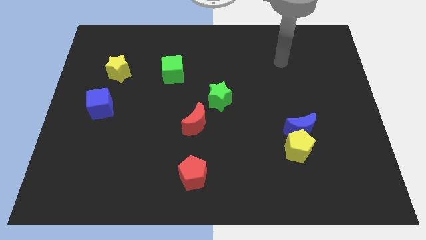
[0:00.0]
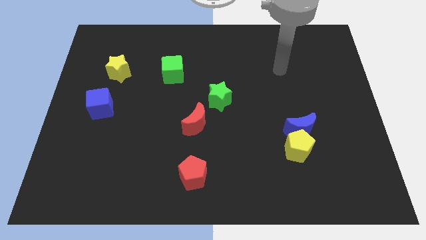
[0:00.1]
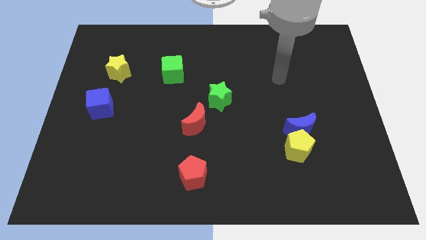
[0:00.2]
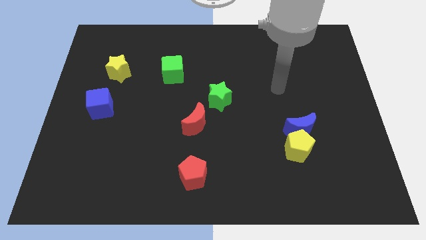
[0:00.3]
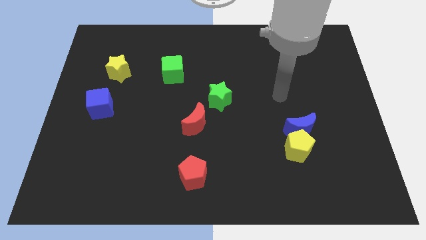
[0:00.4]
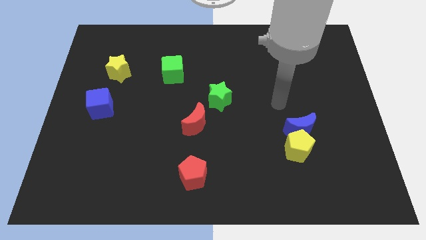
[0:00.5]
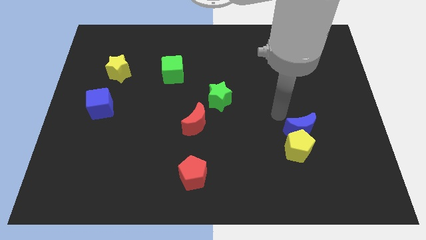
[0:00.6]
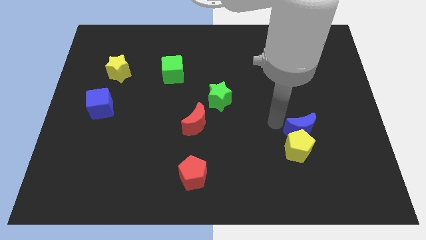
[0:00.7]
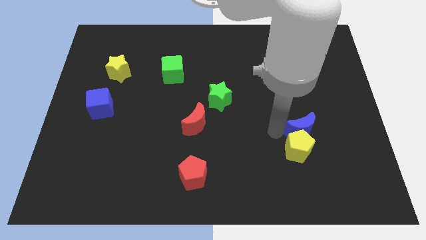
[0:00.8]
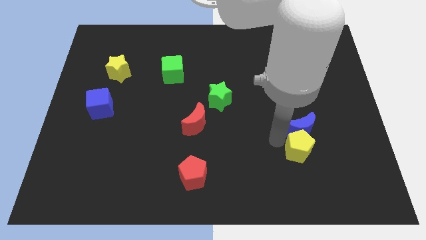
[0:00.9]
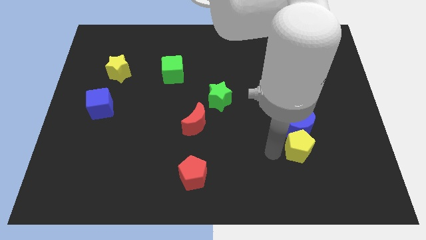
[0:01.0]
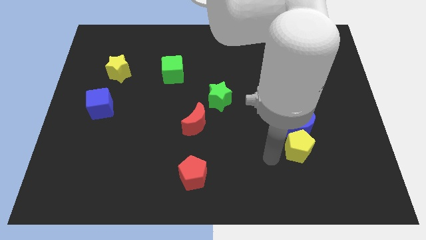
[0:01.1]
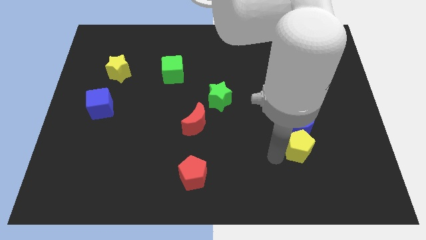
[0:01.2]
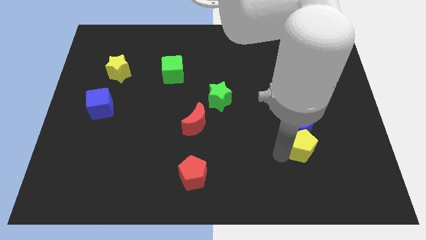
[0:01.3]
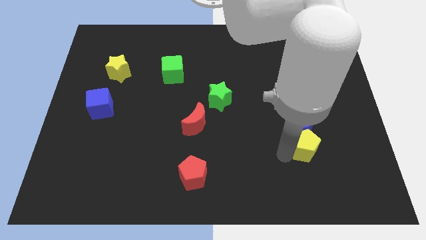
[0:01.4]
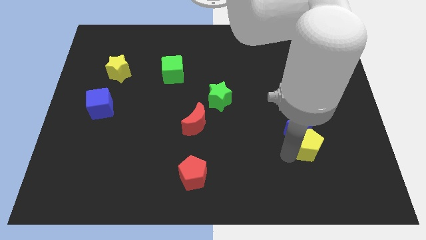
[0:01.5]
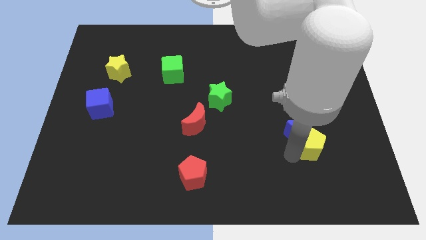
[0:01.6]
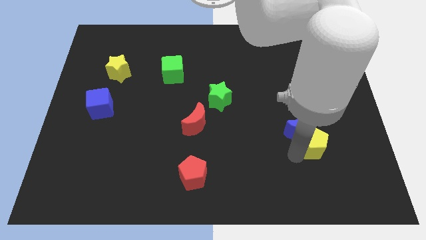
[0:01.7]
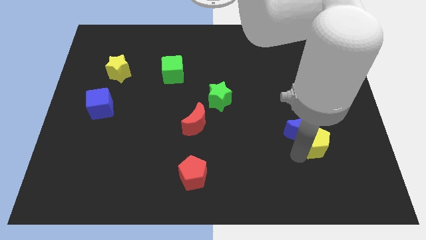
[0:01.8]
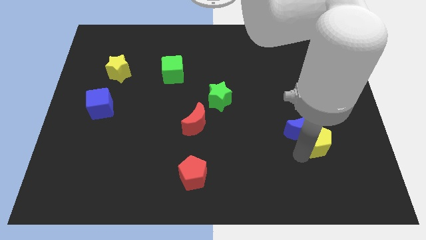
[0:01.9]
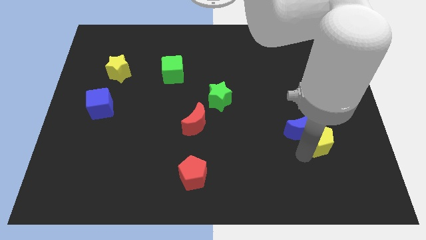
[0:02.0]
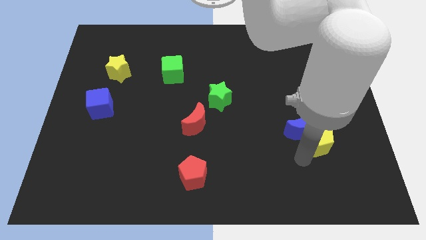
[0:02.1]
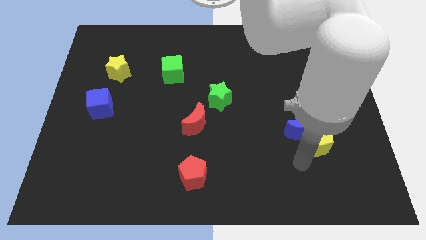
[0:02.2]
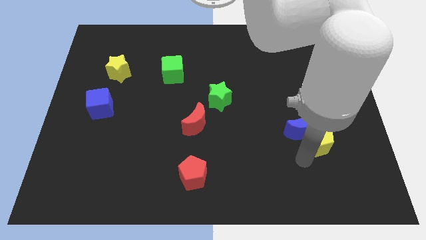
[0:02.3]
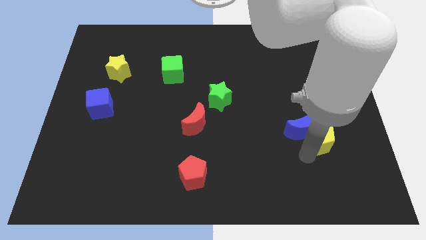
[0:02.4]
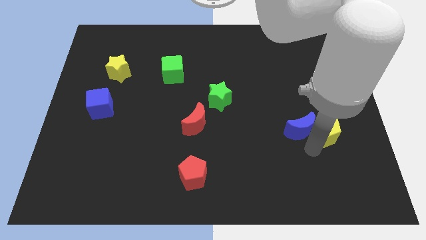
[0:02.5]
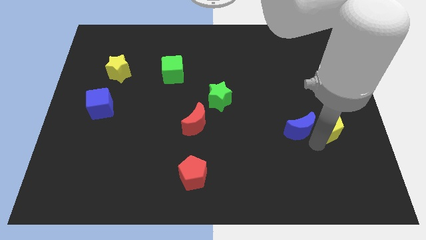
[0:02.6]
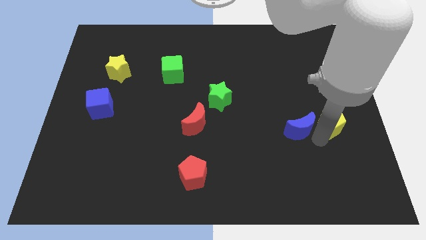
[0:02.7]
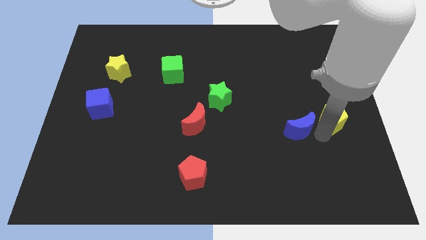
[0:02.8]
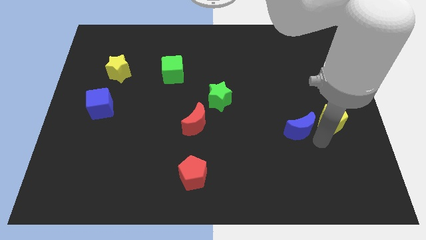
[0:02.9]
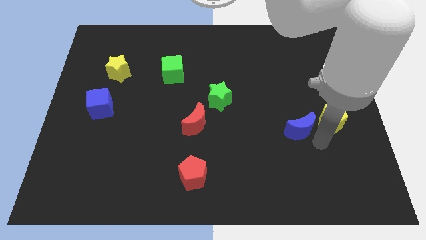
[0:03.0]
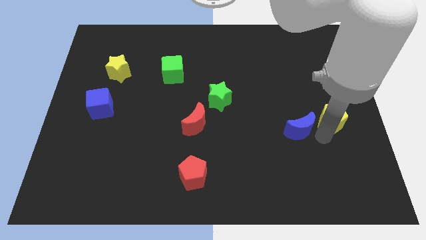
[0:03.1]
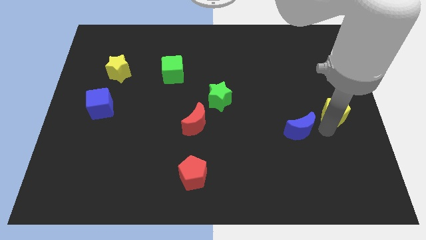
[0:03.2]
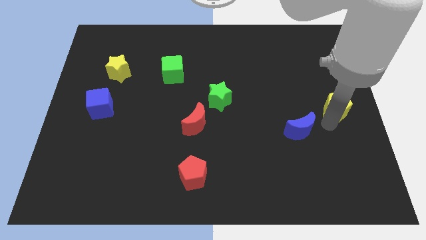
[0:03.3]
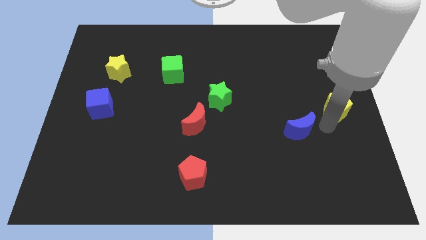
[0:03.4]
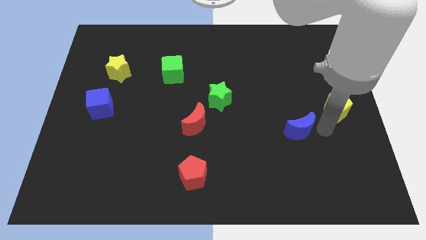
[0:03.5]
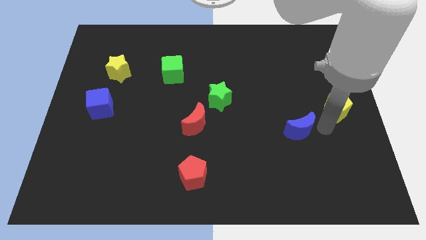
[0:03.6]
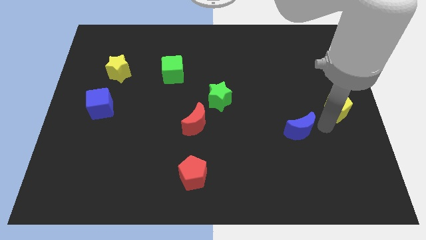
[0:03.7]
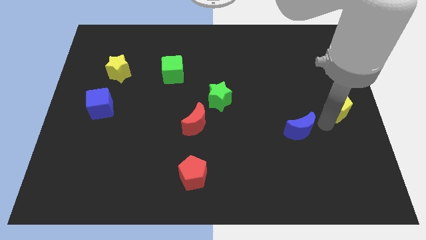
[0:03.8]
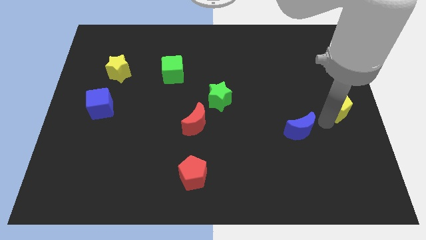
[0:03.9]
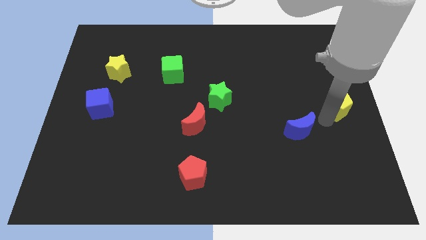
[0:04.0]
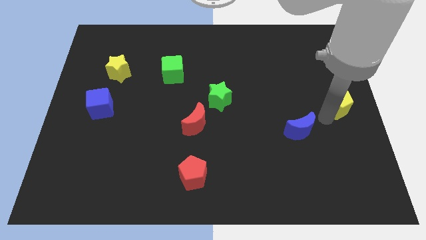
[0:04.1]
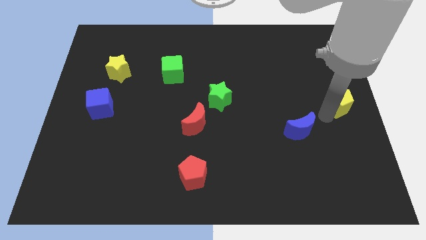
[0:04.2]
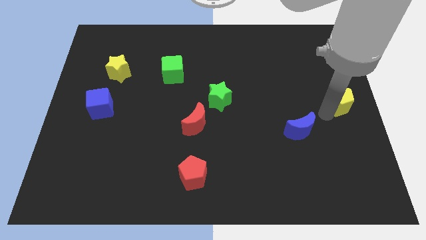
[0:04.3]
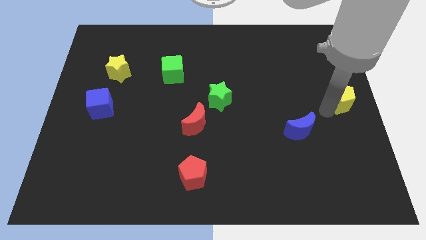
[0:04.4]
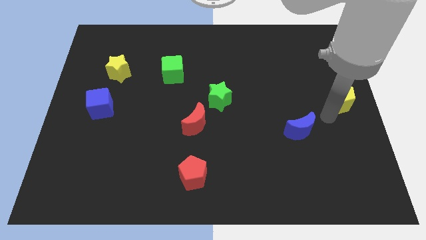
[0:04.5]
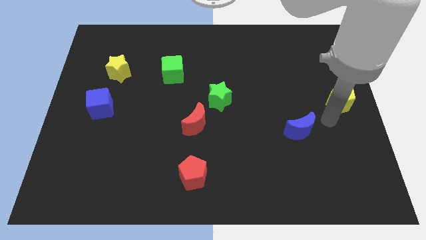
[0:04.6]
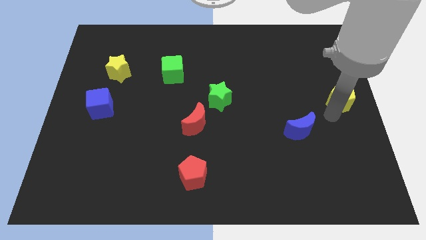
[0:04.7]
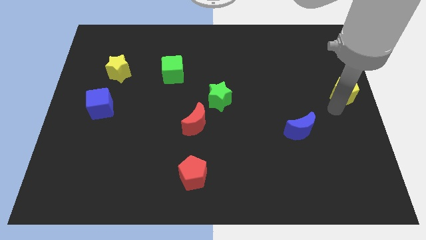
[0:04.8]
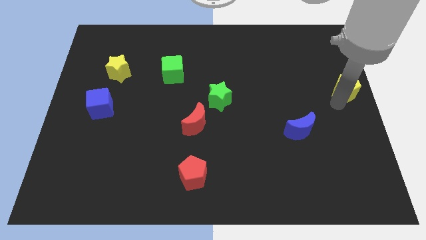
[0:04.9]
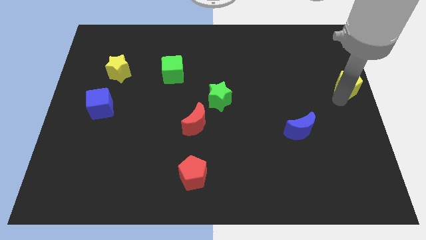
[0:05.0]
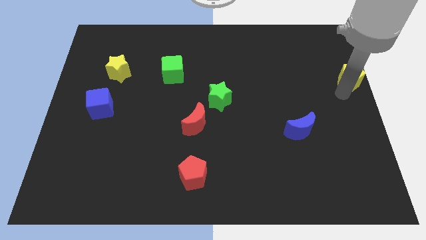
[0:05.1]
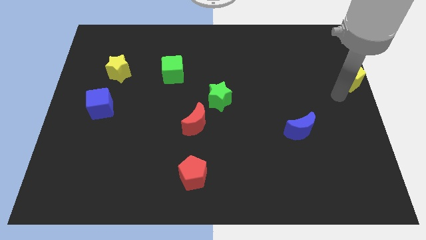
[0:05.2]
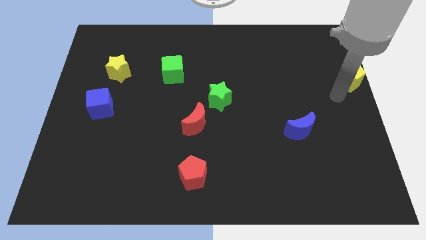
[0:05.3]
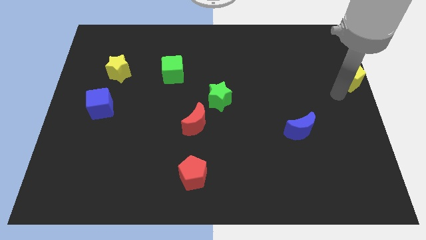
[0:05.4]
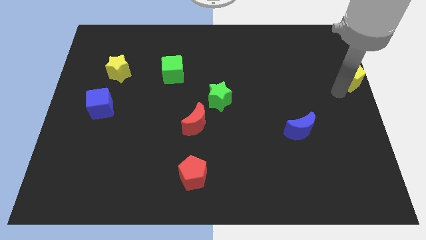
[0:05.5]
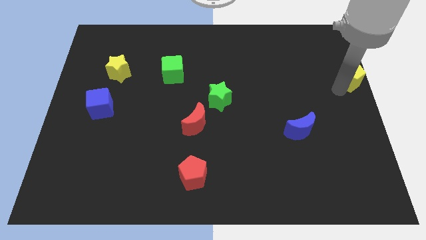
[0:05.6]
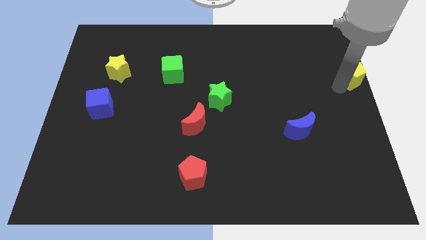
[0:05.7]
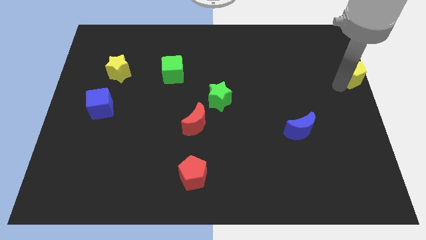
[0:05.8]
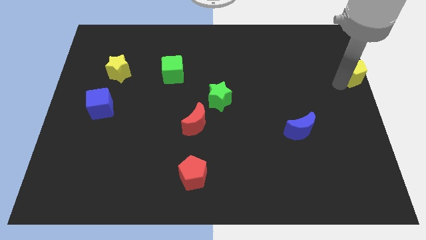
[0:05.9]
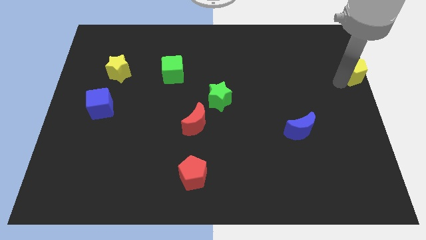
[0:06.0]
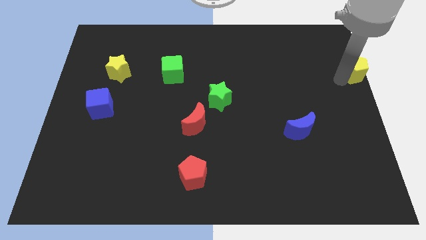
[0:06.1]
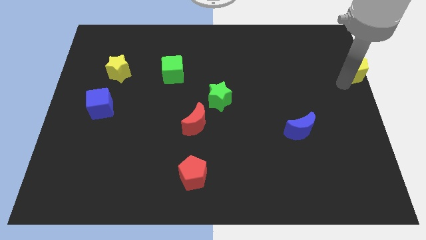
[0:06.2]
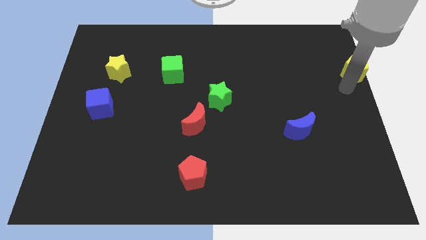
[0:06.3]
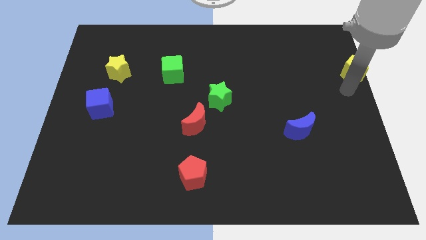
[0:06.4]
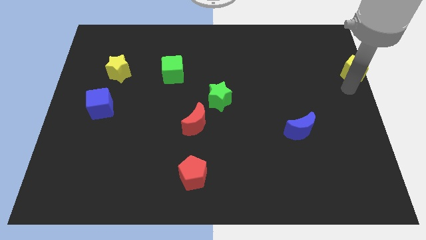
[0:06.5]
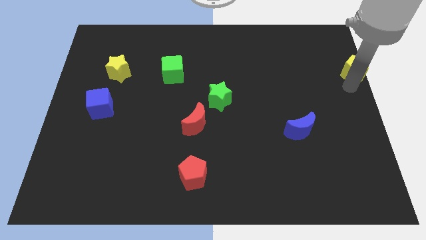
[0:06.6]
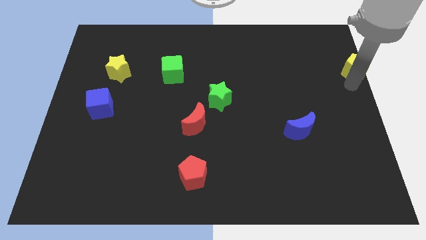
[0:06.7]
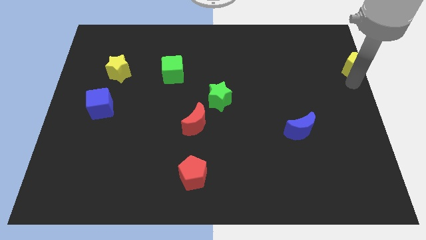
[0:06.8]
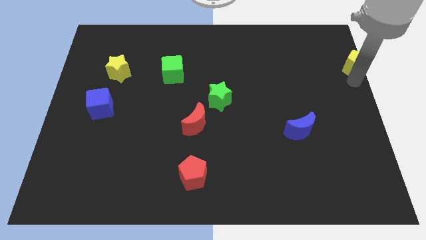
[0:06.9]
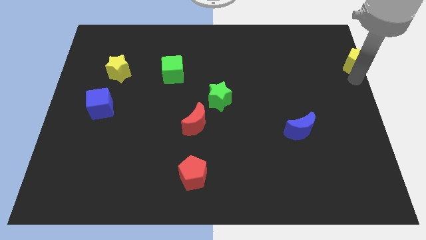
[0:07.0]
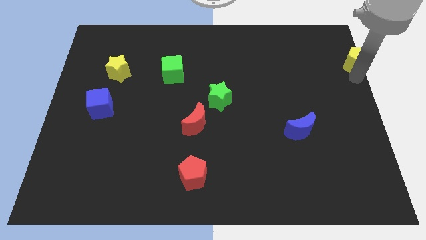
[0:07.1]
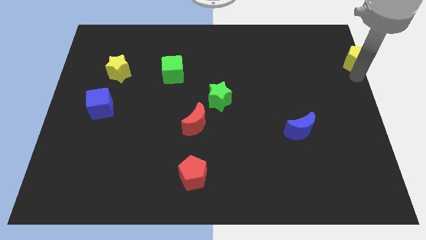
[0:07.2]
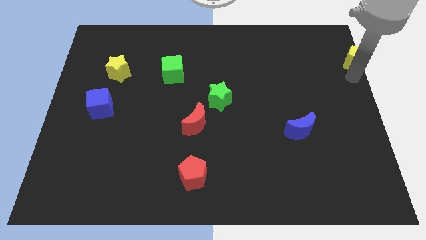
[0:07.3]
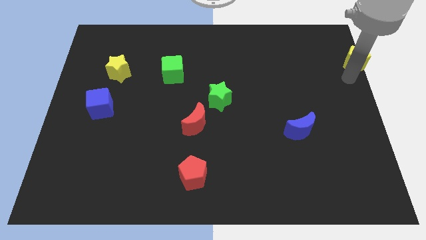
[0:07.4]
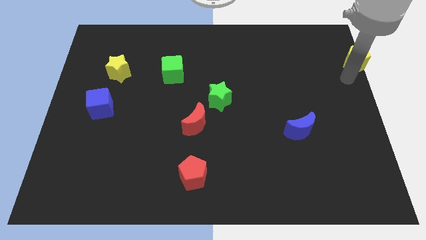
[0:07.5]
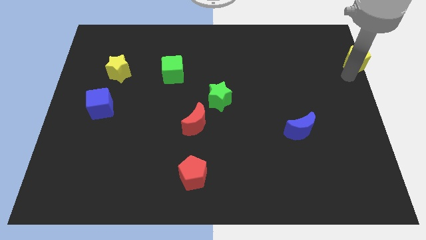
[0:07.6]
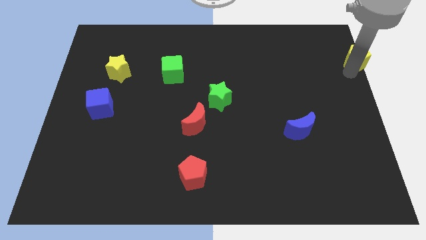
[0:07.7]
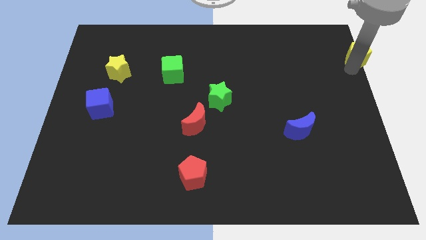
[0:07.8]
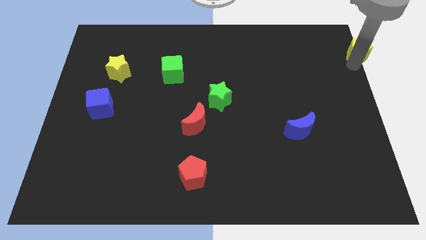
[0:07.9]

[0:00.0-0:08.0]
push the yellow pentagon to the top right corner
